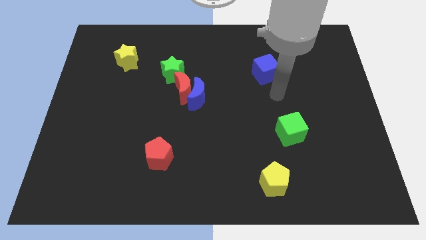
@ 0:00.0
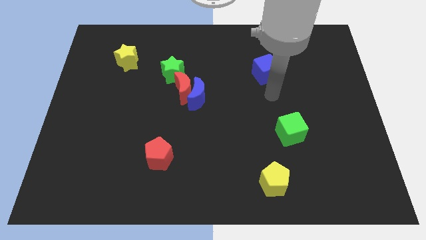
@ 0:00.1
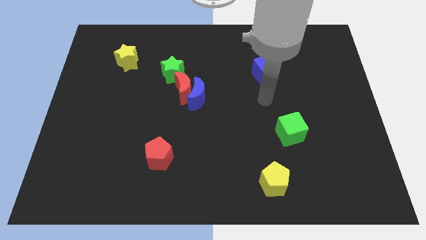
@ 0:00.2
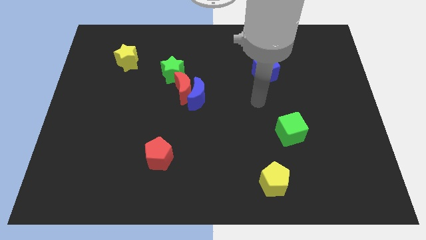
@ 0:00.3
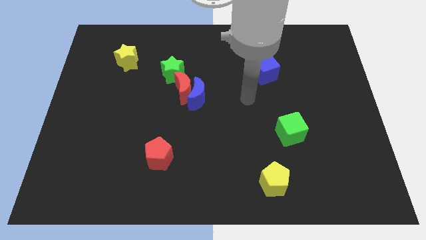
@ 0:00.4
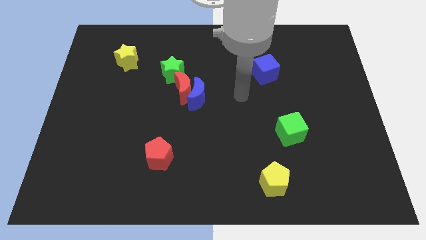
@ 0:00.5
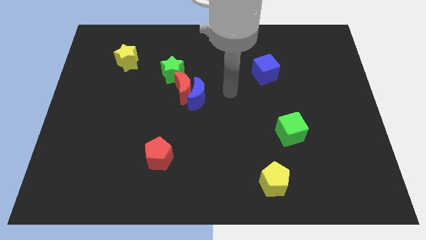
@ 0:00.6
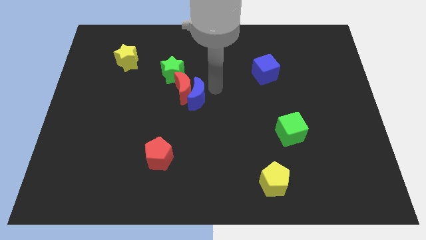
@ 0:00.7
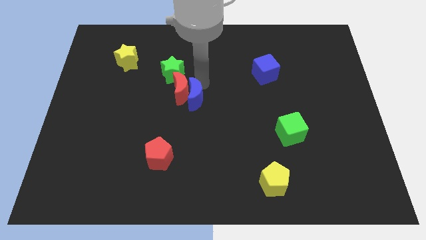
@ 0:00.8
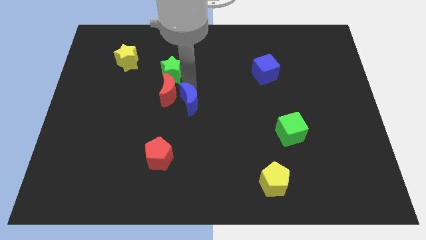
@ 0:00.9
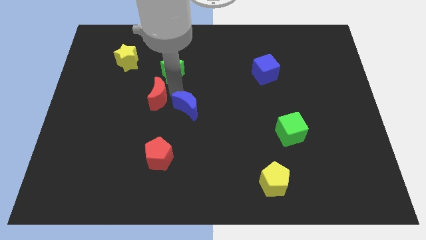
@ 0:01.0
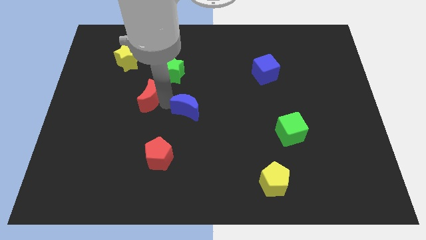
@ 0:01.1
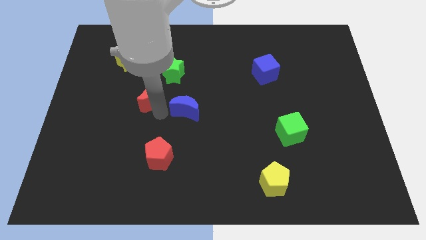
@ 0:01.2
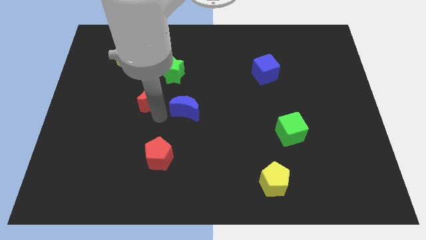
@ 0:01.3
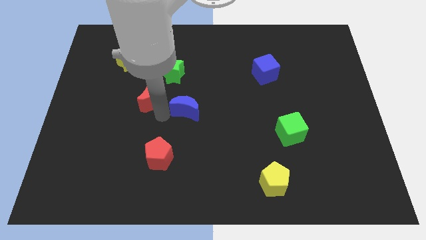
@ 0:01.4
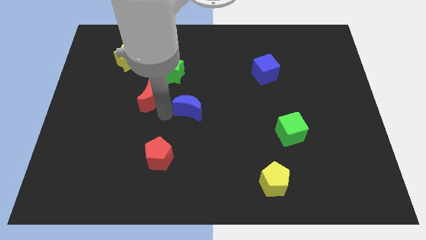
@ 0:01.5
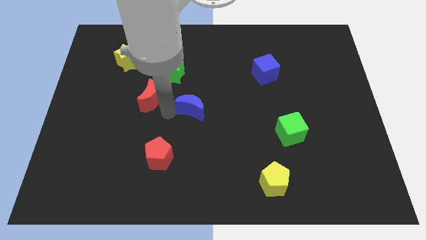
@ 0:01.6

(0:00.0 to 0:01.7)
pull the blue moon apart from the red moon

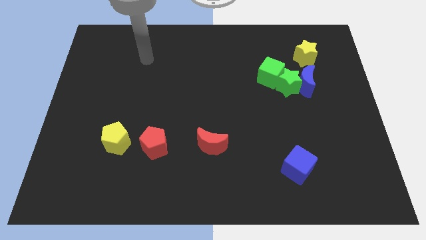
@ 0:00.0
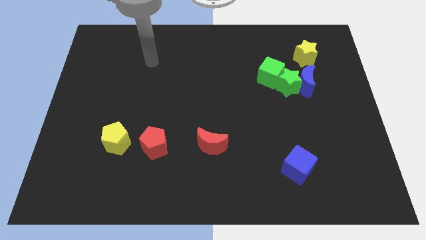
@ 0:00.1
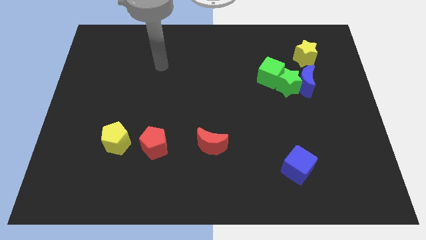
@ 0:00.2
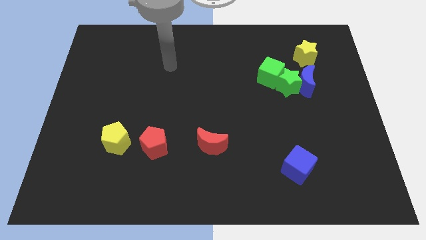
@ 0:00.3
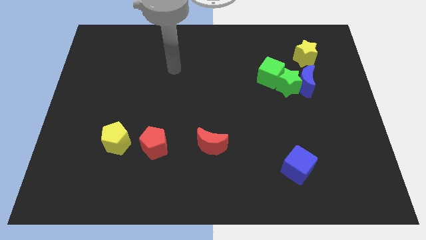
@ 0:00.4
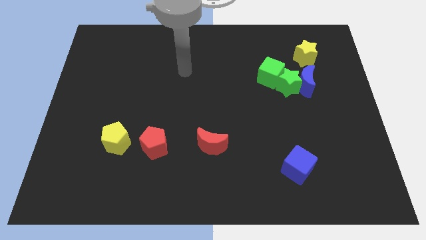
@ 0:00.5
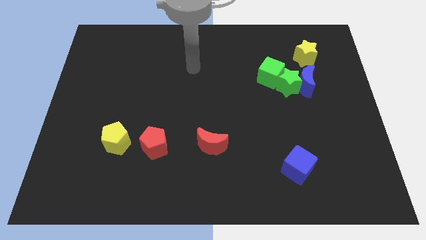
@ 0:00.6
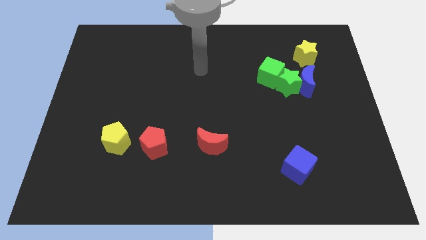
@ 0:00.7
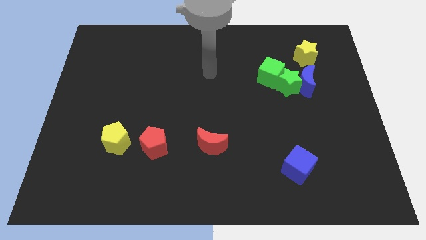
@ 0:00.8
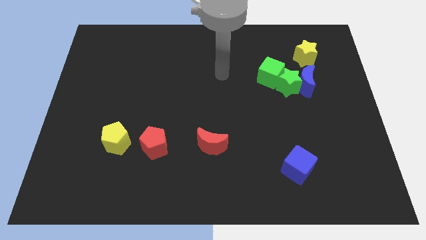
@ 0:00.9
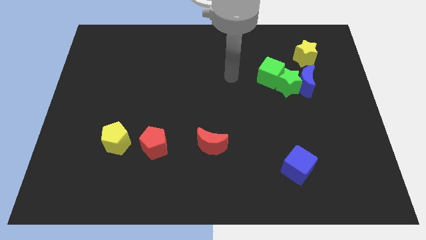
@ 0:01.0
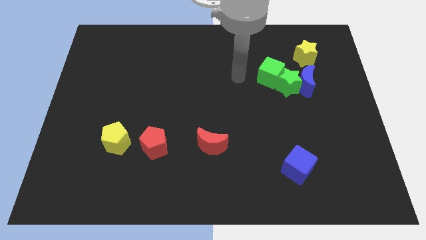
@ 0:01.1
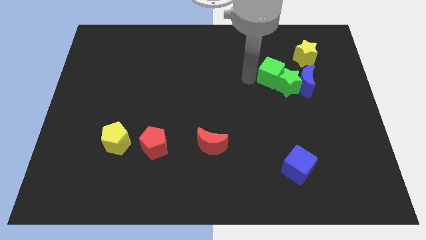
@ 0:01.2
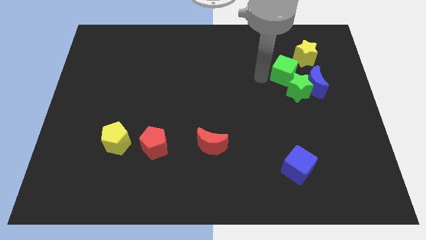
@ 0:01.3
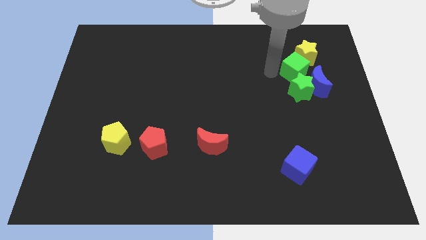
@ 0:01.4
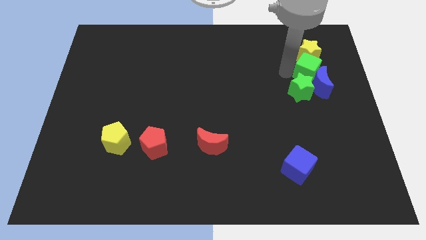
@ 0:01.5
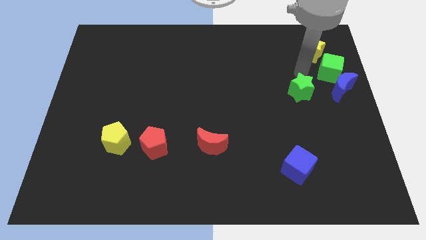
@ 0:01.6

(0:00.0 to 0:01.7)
separate the green star from the blue moon and green cube

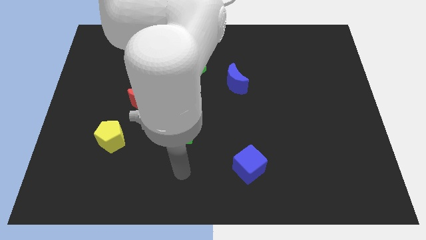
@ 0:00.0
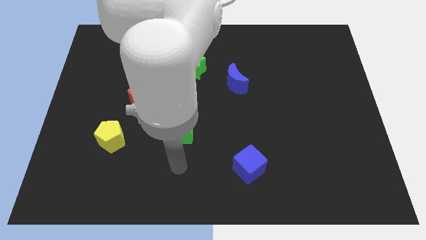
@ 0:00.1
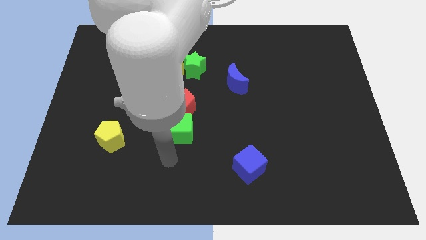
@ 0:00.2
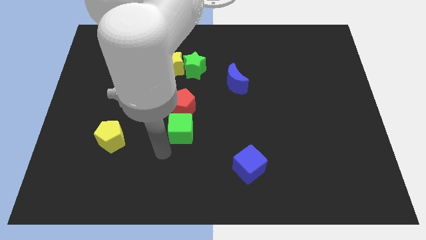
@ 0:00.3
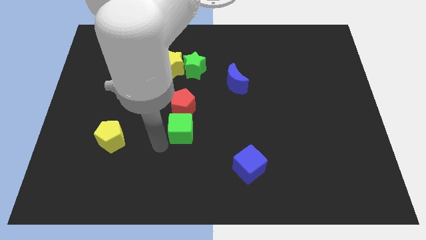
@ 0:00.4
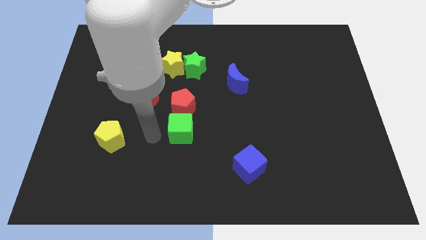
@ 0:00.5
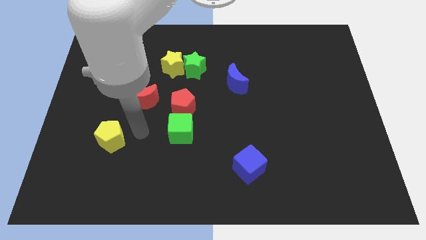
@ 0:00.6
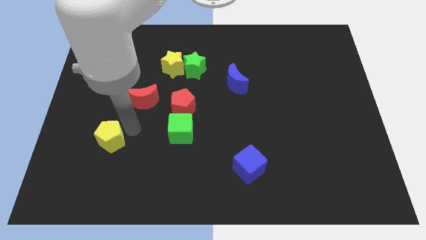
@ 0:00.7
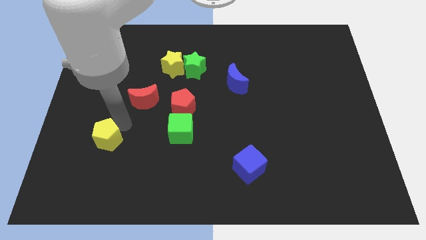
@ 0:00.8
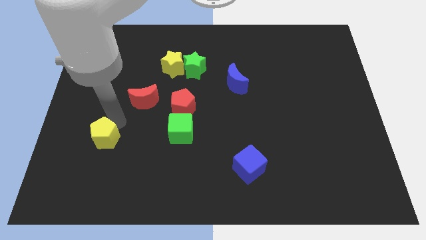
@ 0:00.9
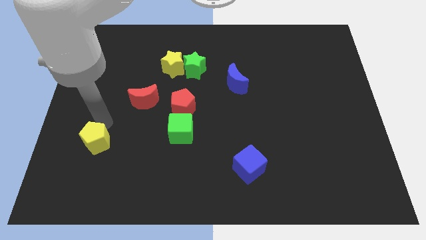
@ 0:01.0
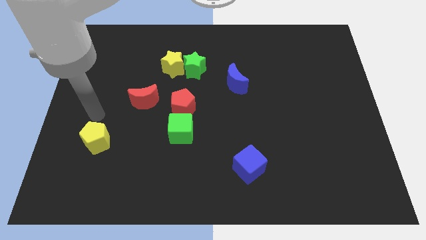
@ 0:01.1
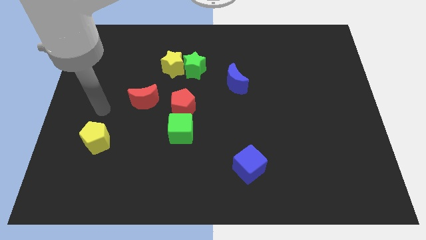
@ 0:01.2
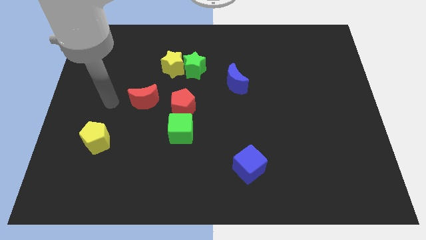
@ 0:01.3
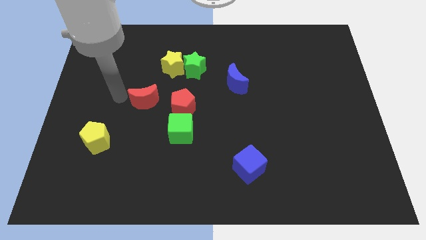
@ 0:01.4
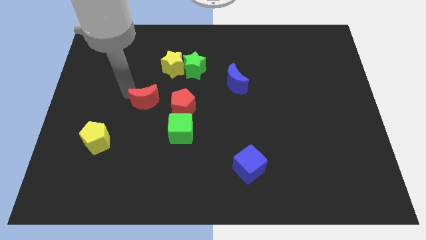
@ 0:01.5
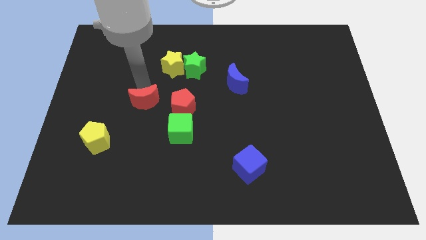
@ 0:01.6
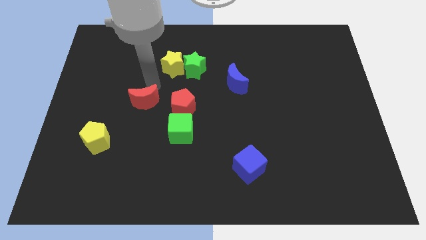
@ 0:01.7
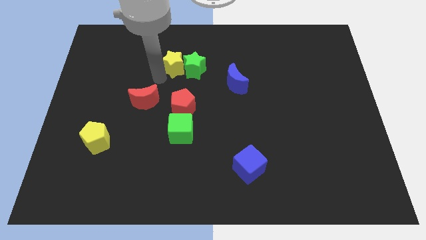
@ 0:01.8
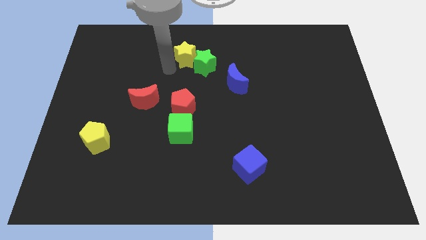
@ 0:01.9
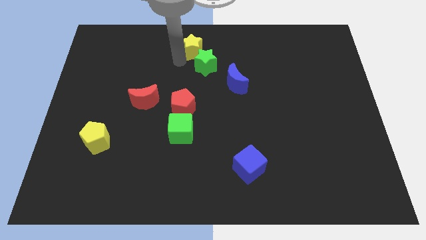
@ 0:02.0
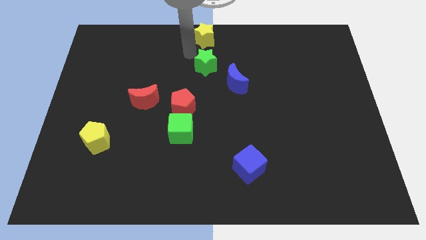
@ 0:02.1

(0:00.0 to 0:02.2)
separate the green star from the yellow star

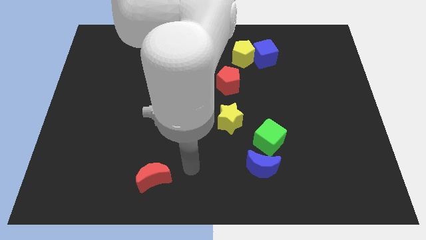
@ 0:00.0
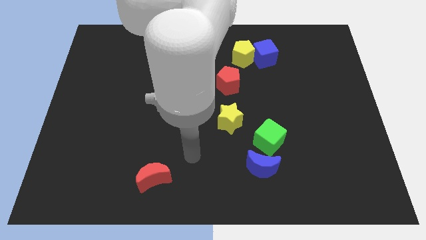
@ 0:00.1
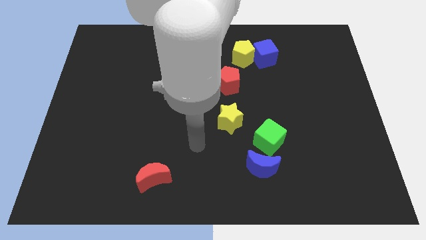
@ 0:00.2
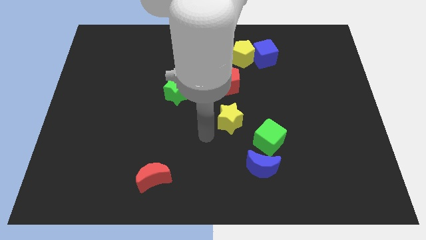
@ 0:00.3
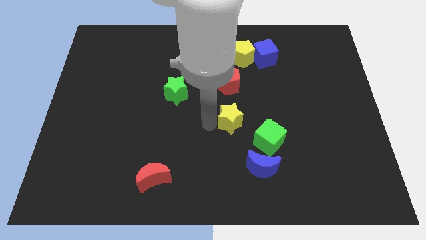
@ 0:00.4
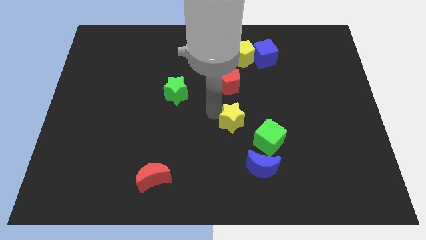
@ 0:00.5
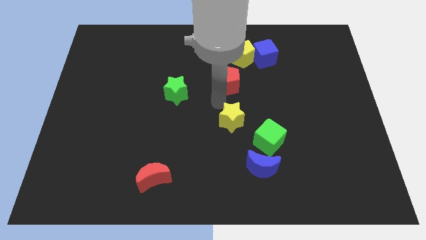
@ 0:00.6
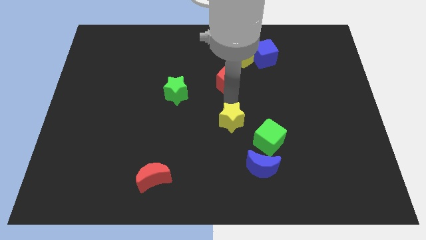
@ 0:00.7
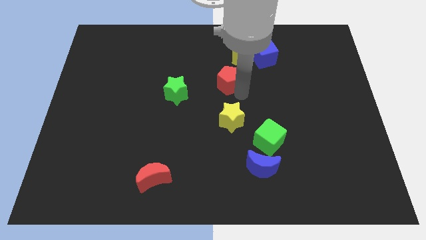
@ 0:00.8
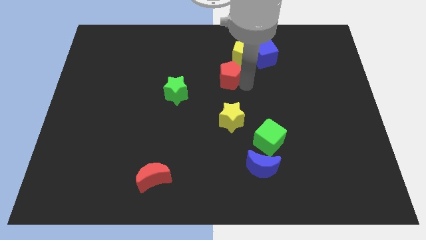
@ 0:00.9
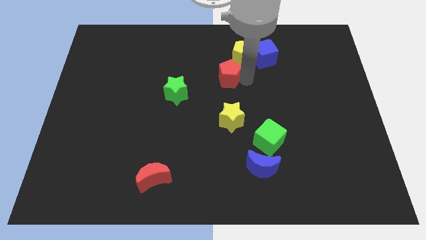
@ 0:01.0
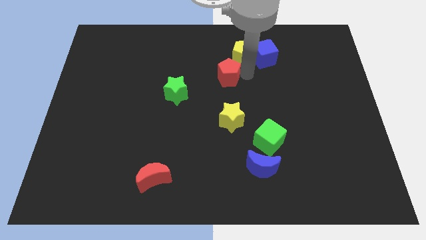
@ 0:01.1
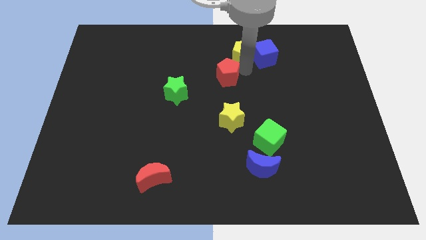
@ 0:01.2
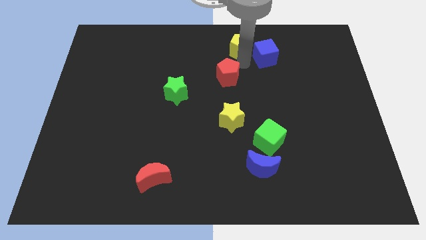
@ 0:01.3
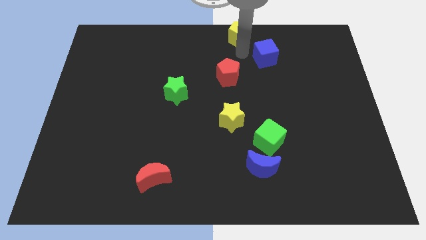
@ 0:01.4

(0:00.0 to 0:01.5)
pull the blue cube apart from the yellow pentagon

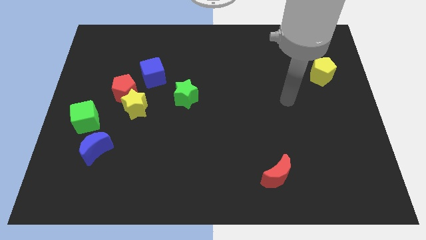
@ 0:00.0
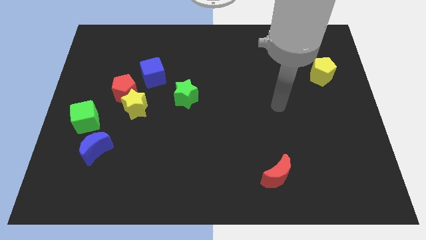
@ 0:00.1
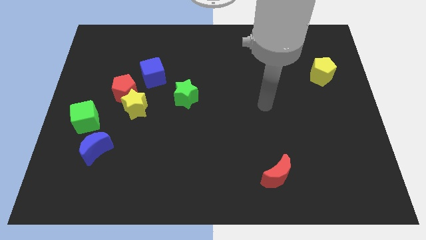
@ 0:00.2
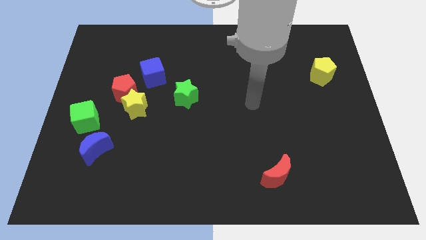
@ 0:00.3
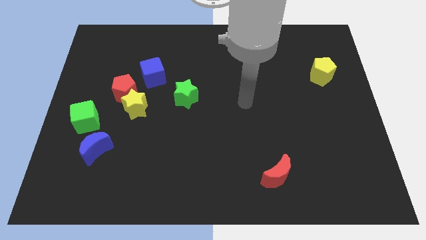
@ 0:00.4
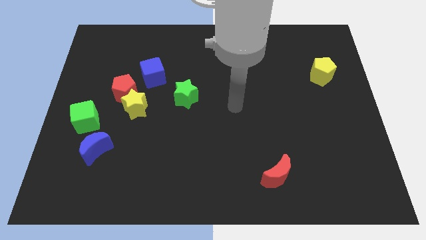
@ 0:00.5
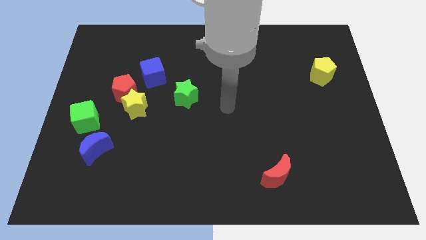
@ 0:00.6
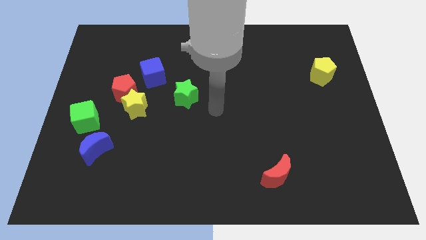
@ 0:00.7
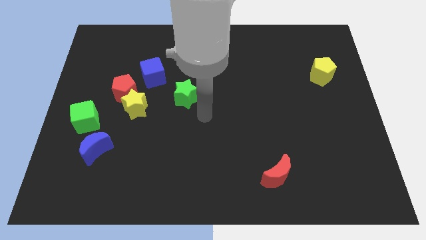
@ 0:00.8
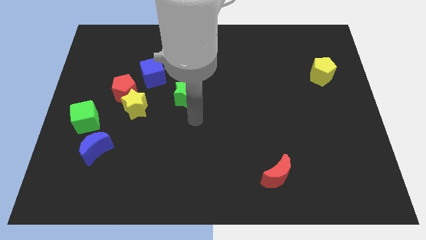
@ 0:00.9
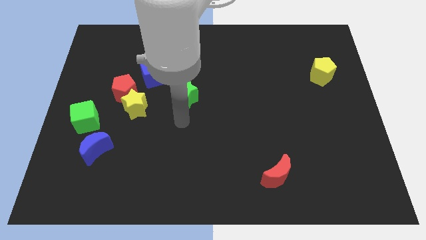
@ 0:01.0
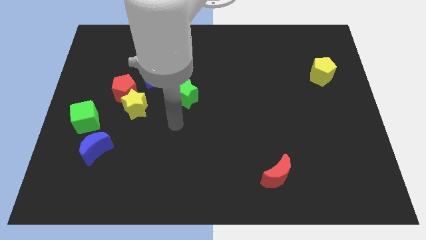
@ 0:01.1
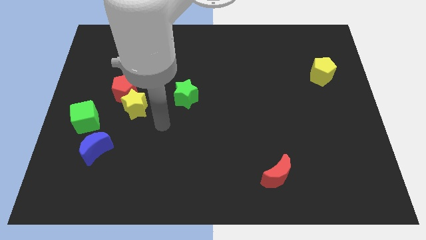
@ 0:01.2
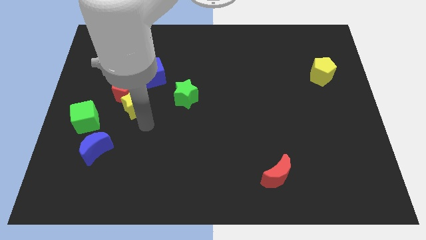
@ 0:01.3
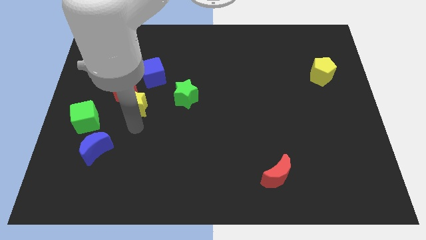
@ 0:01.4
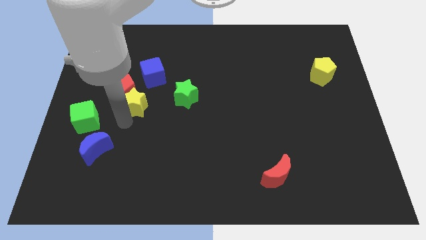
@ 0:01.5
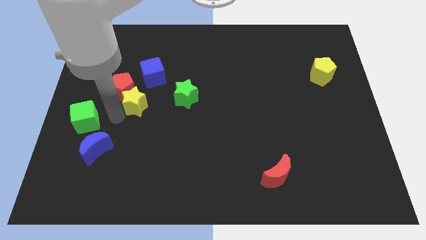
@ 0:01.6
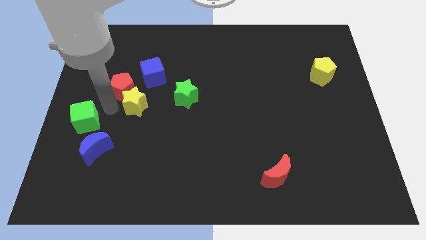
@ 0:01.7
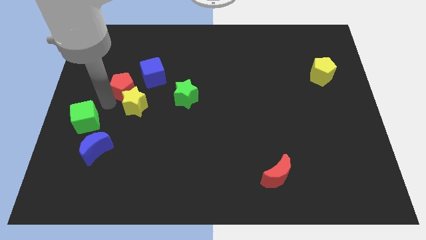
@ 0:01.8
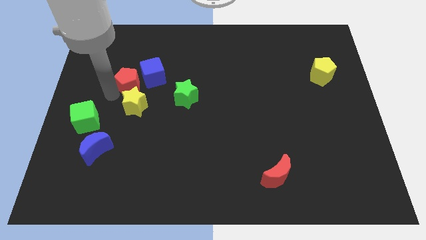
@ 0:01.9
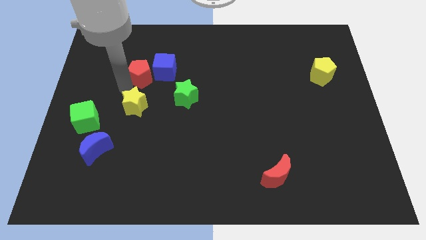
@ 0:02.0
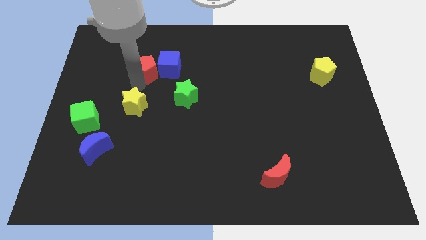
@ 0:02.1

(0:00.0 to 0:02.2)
move the yellow star away from the red pentagon
